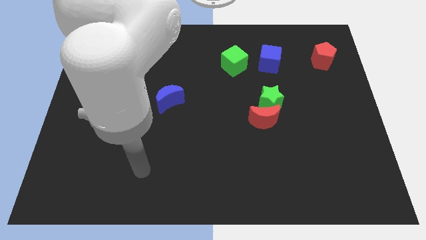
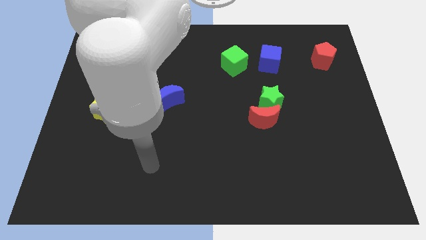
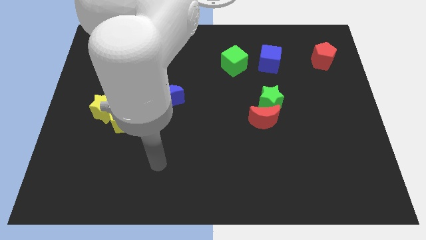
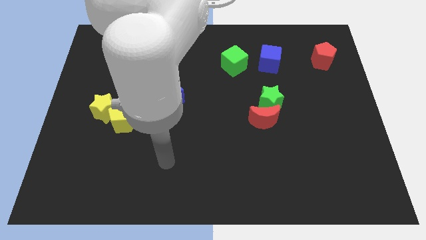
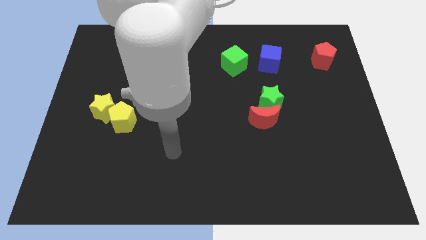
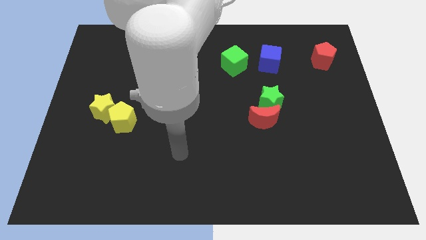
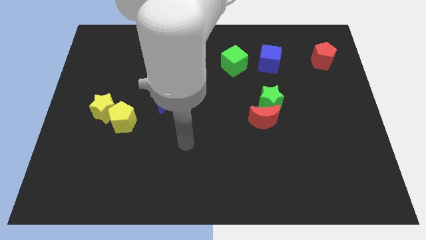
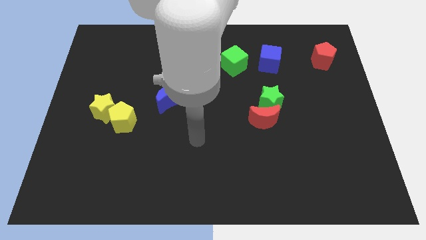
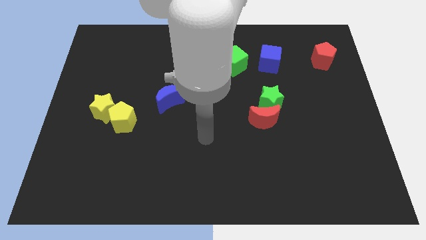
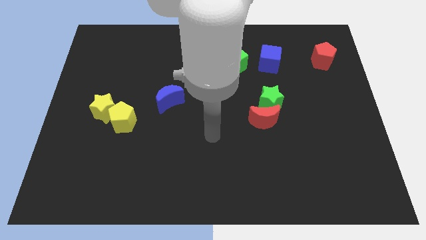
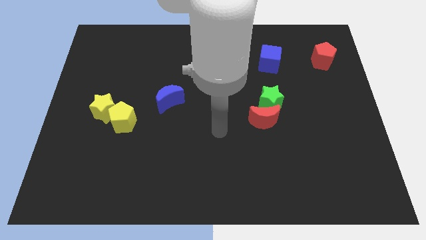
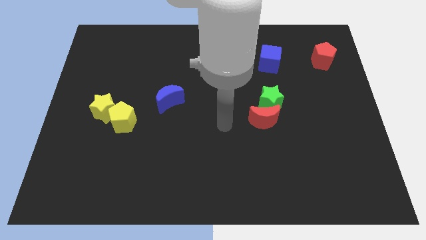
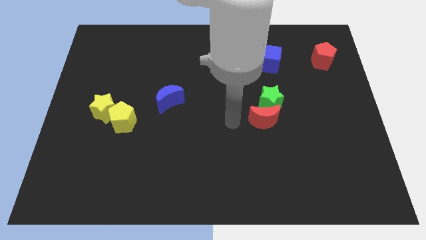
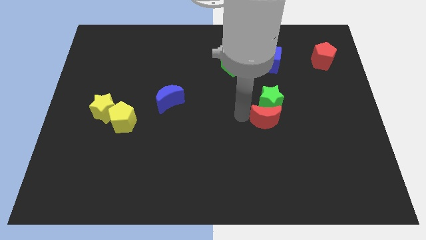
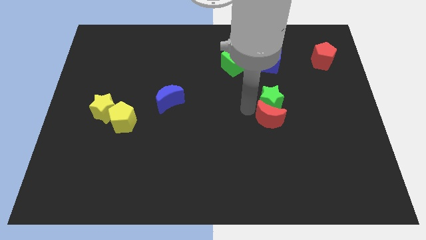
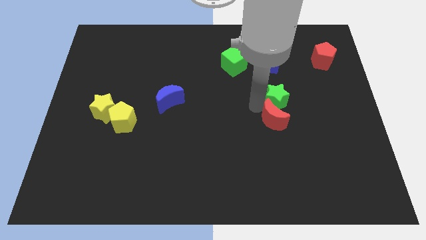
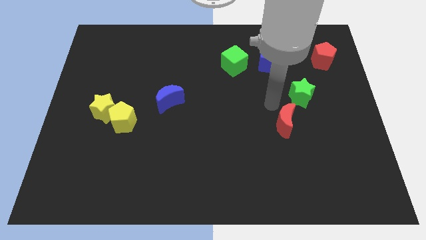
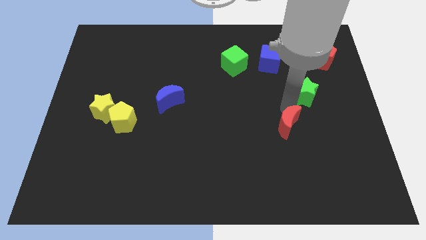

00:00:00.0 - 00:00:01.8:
pull the red moon apart from the green star

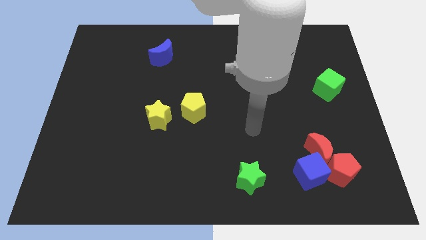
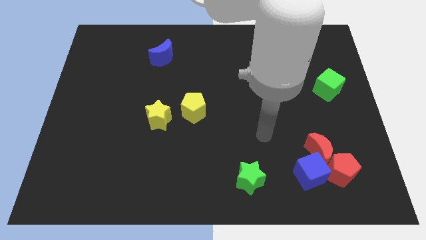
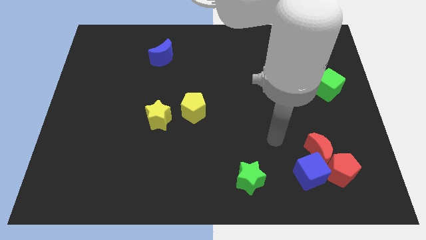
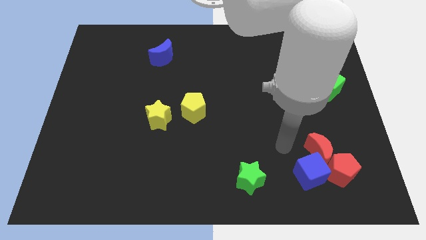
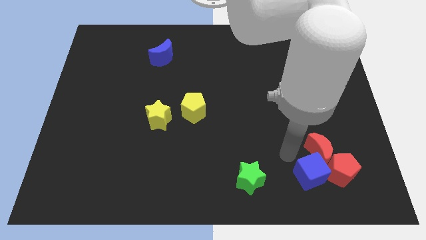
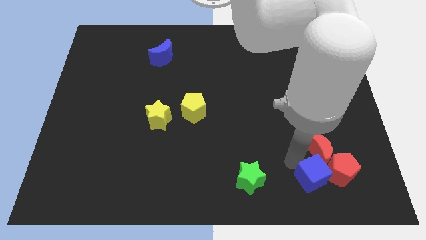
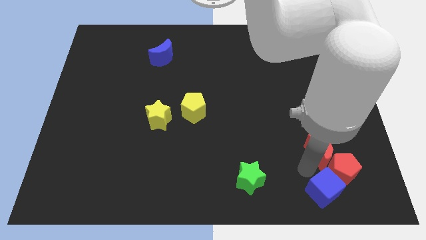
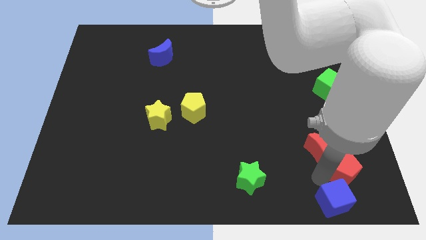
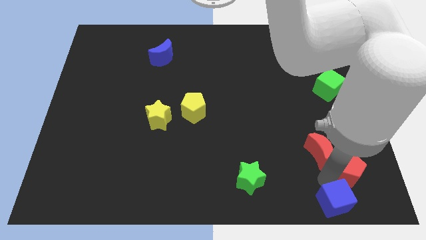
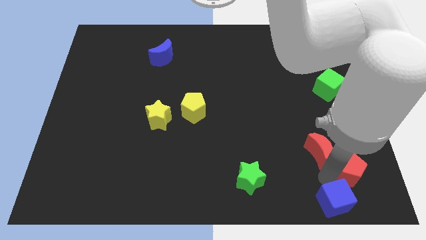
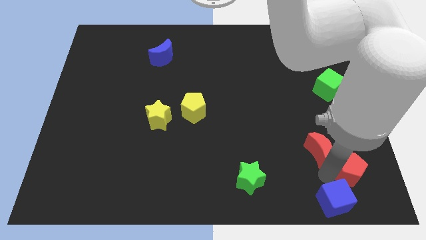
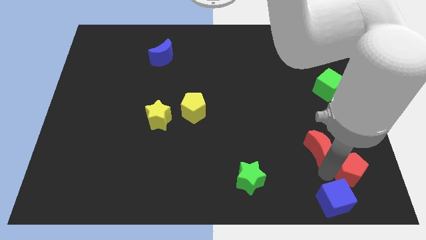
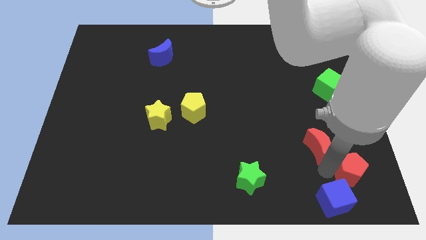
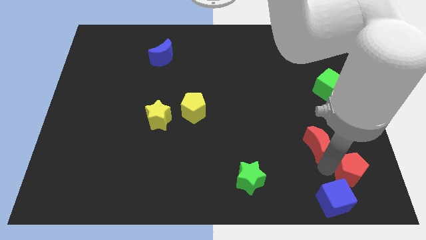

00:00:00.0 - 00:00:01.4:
move the red moon away from the blue cube and red pentagon

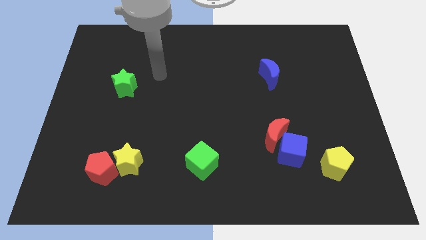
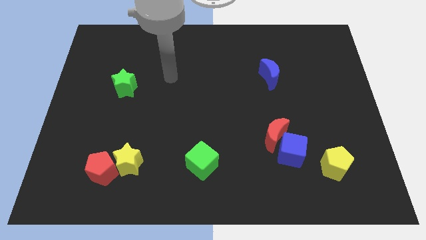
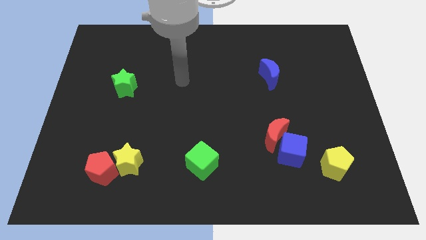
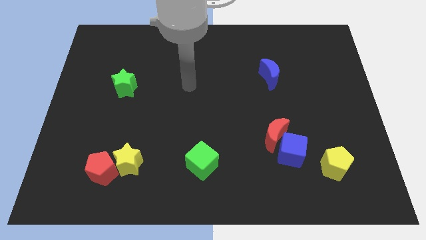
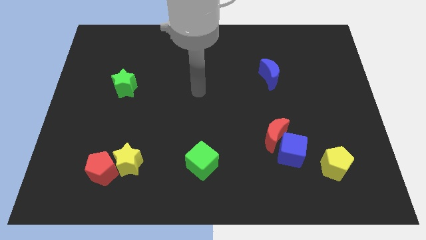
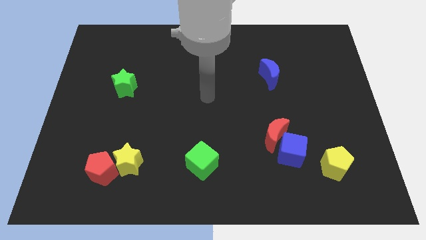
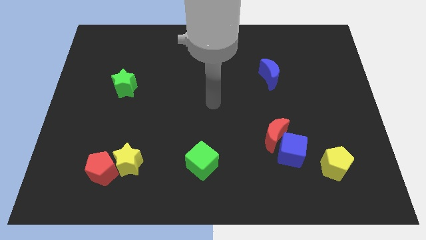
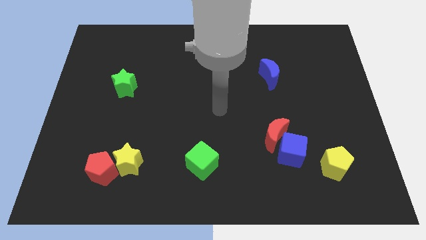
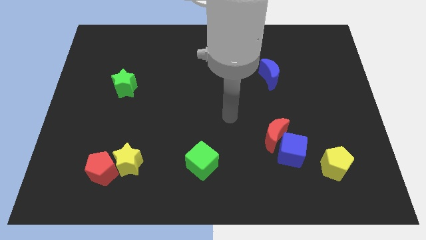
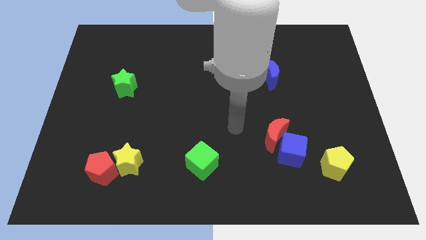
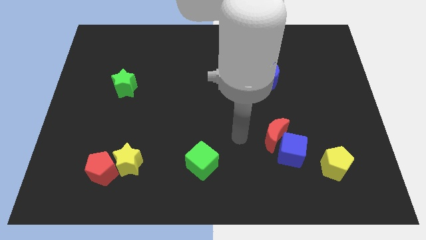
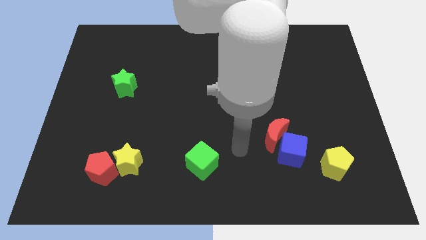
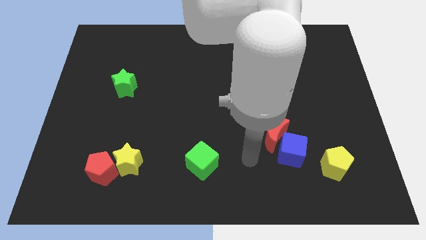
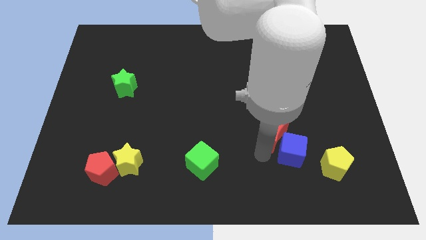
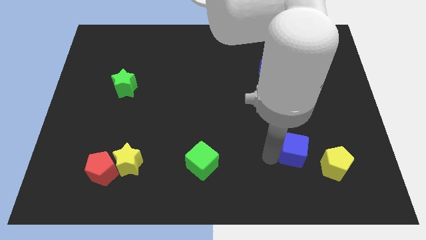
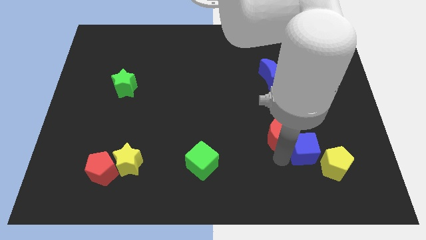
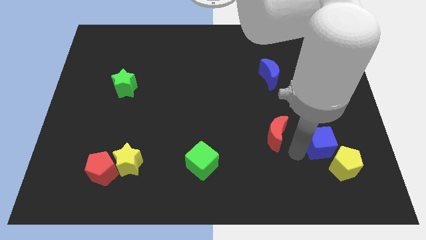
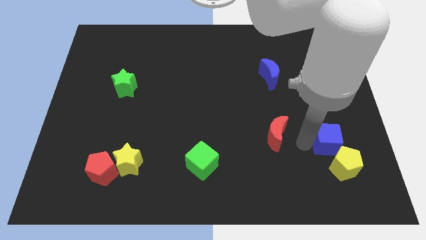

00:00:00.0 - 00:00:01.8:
move the red moon away from the blue cube

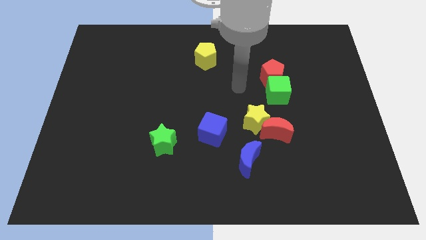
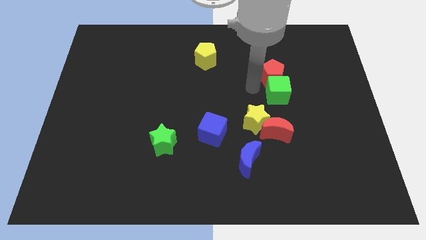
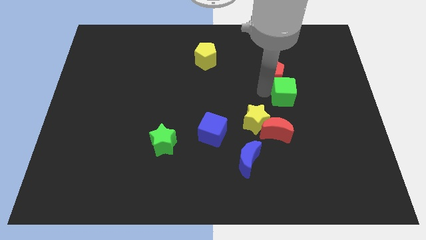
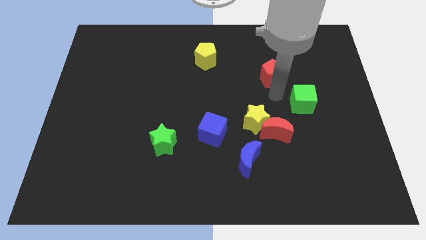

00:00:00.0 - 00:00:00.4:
separate the red pentagon from the green cube

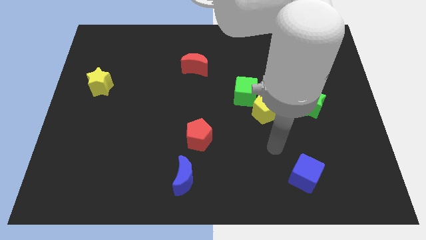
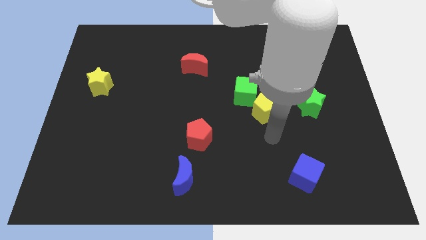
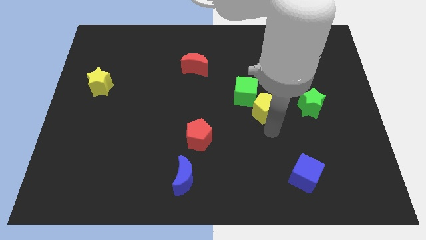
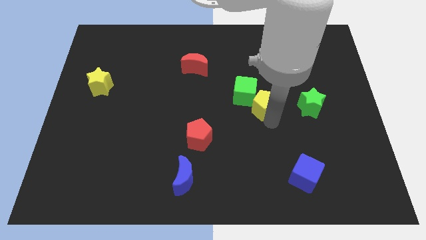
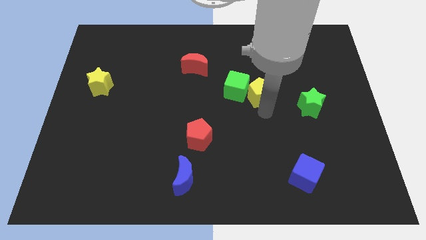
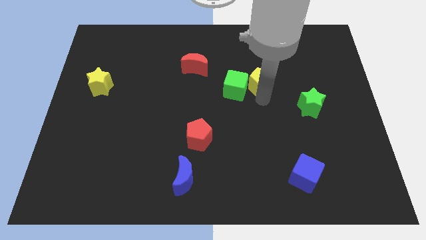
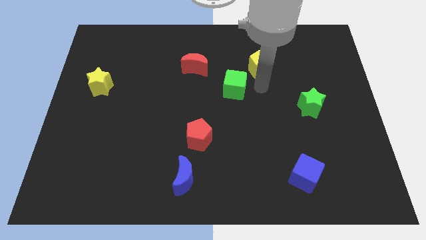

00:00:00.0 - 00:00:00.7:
pull the green cube apart from the yellow pentagon

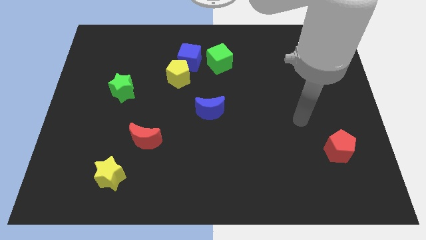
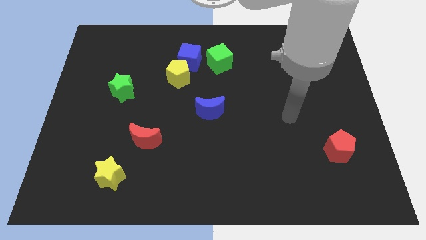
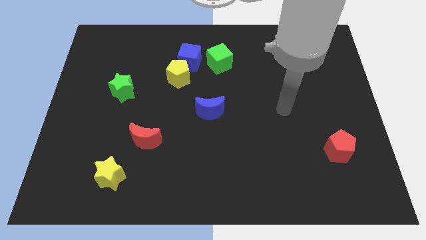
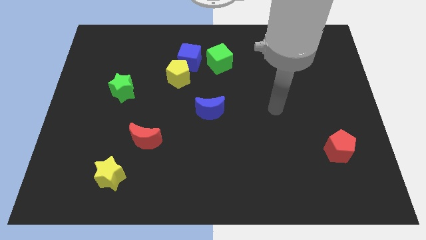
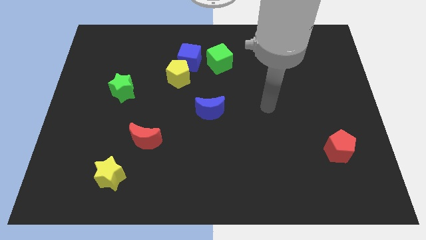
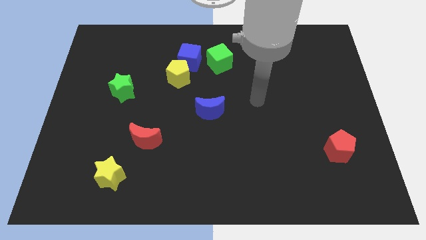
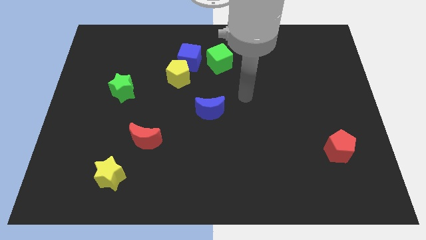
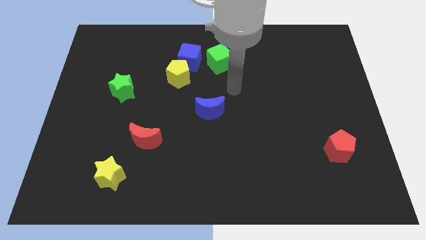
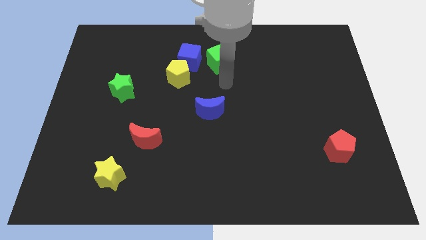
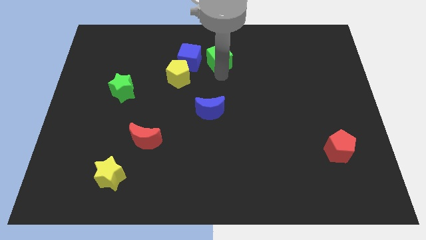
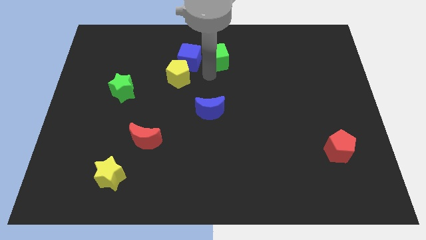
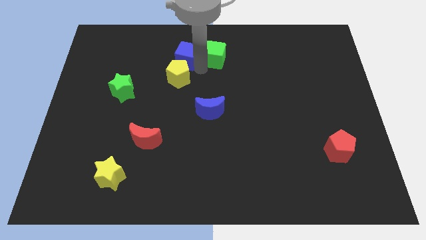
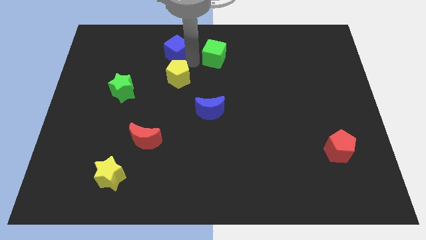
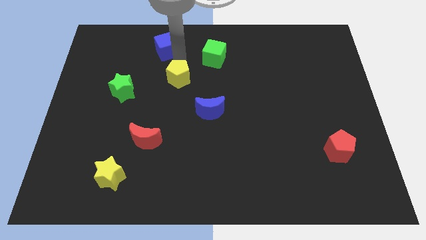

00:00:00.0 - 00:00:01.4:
pull the yellow pentagon apart from the blue cube

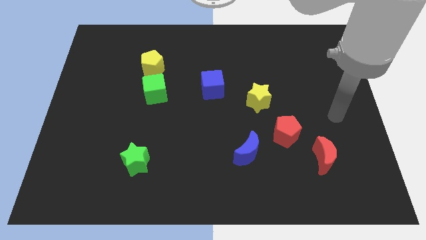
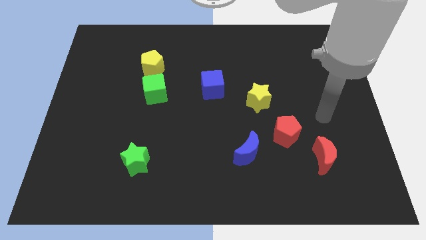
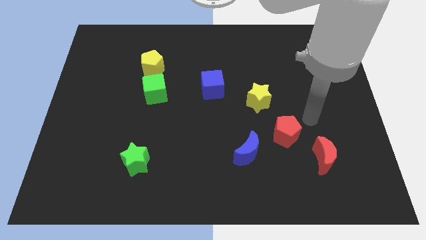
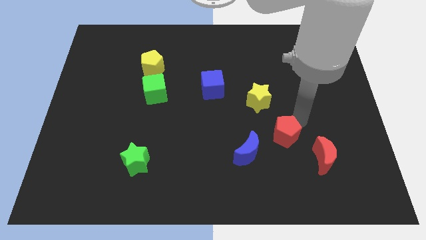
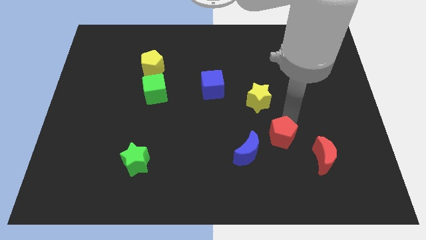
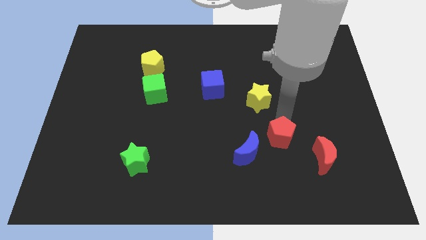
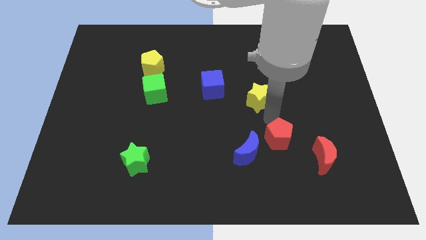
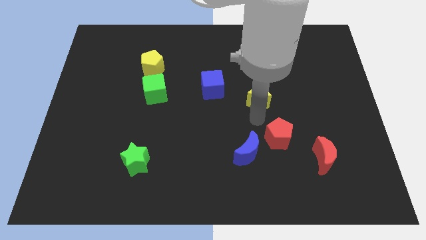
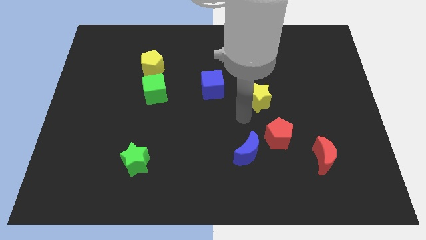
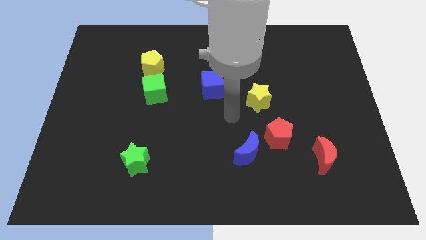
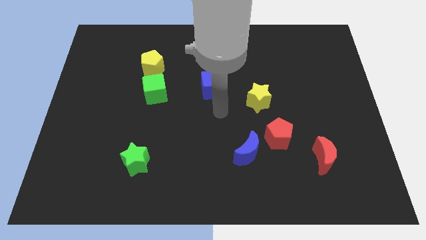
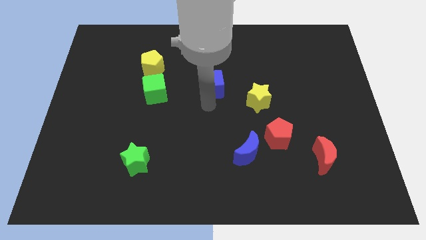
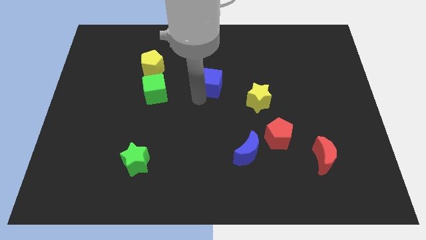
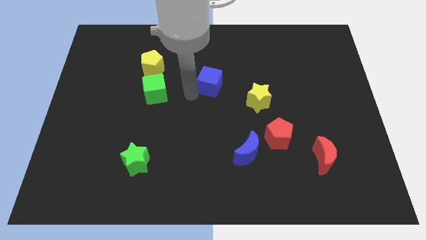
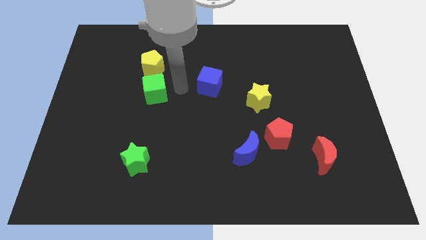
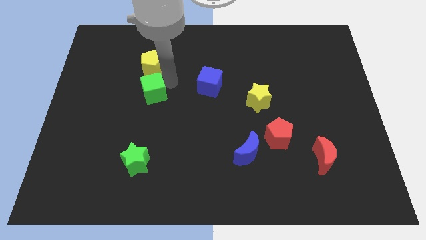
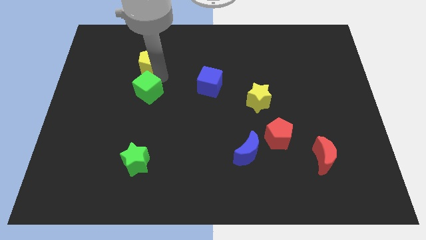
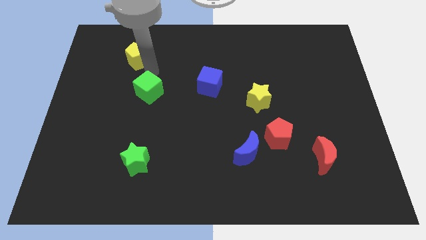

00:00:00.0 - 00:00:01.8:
move the green cube away from the yellow pentagon
